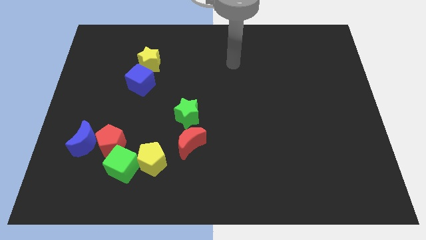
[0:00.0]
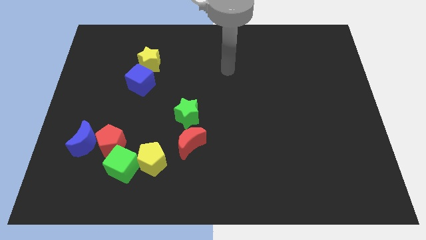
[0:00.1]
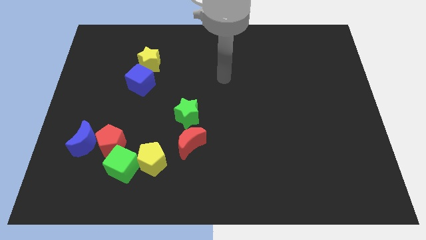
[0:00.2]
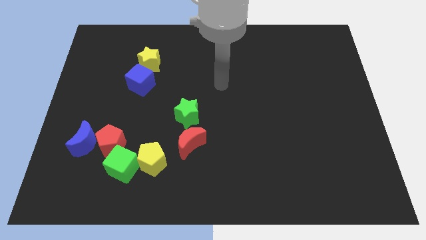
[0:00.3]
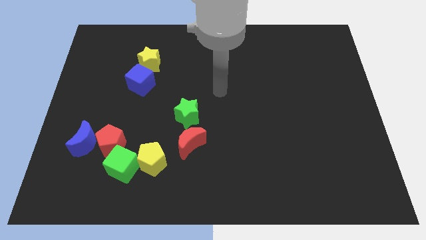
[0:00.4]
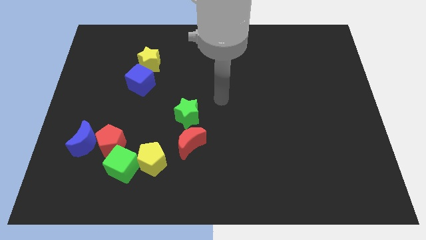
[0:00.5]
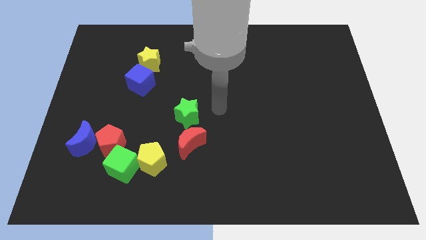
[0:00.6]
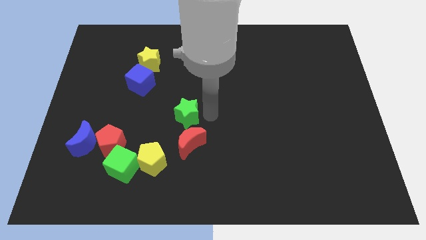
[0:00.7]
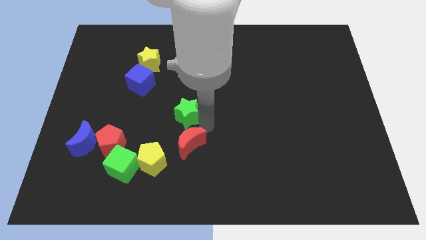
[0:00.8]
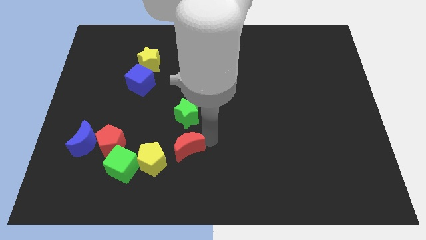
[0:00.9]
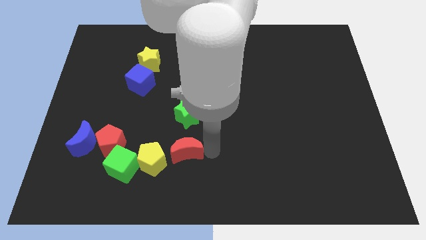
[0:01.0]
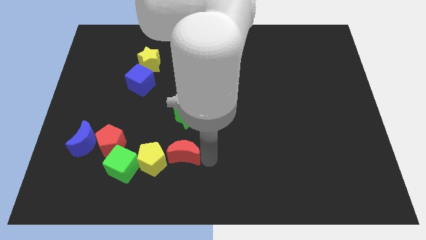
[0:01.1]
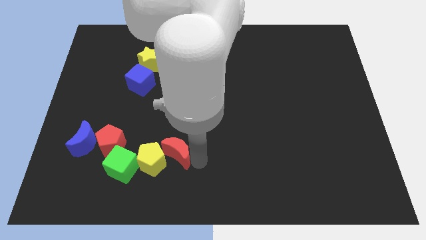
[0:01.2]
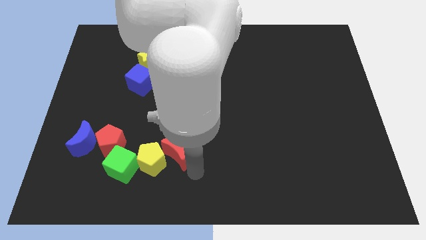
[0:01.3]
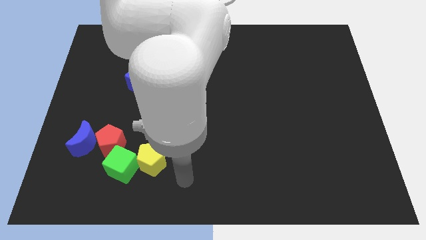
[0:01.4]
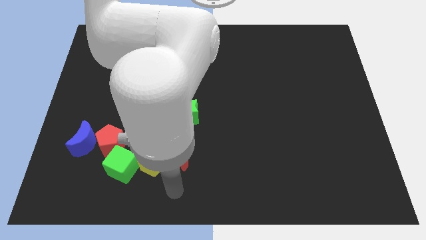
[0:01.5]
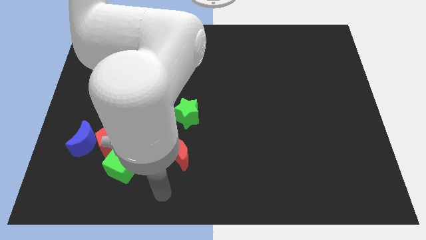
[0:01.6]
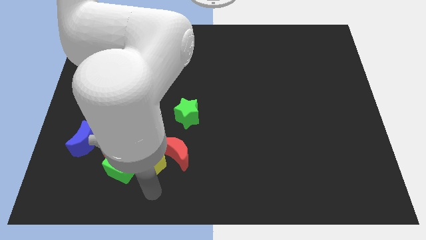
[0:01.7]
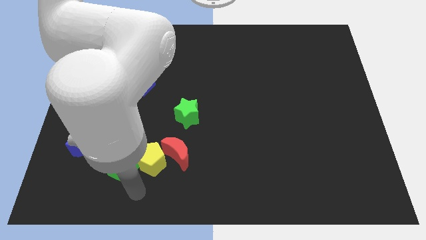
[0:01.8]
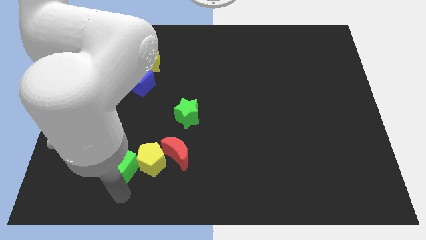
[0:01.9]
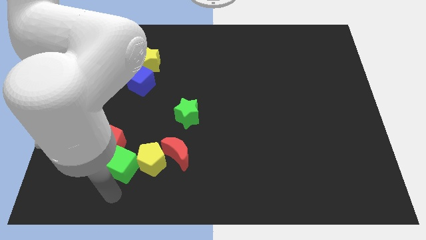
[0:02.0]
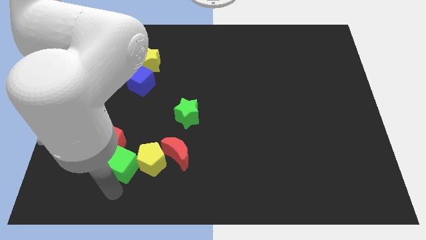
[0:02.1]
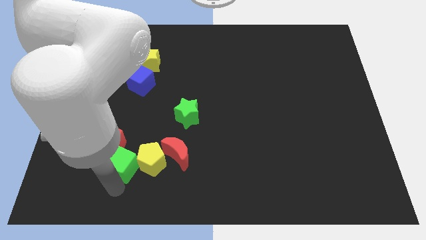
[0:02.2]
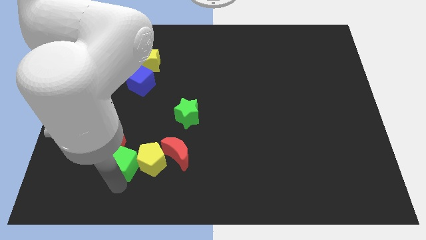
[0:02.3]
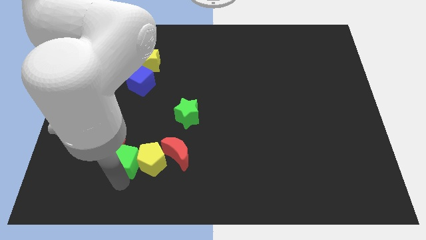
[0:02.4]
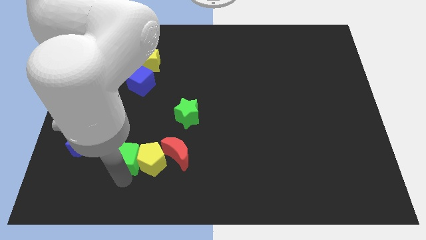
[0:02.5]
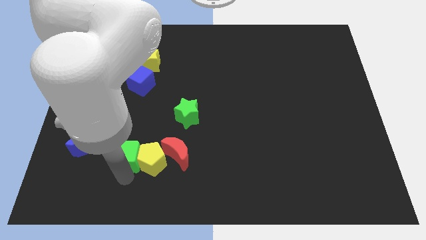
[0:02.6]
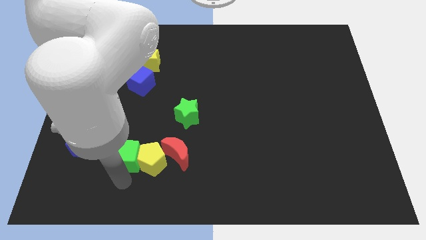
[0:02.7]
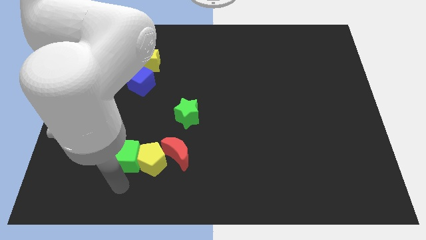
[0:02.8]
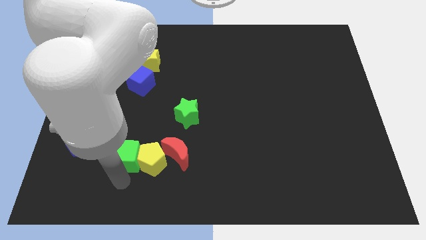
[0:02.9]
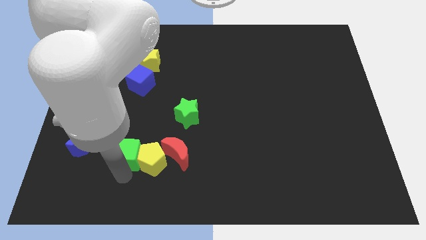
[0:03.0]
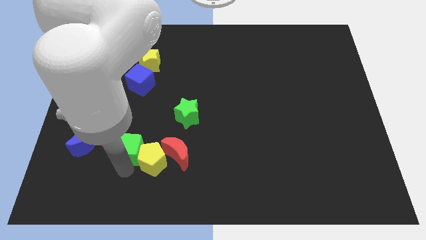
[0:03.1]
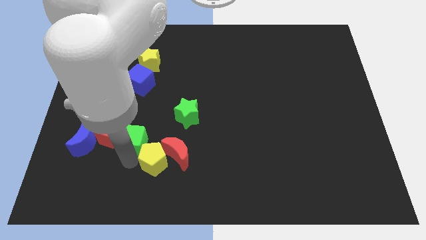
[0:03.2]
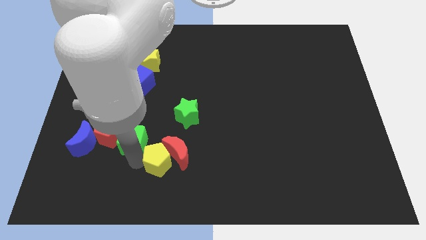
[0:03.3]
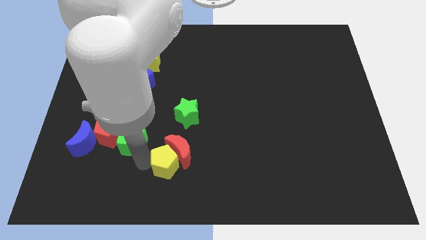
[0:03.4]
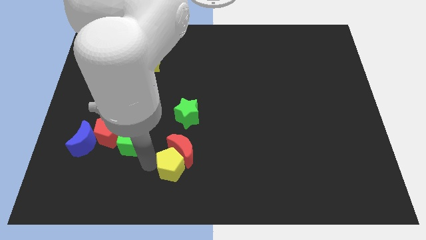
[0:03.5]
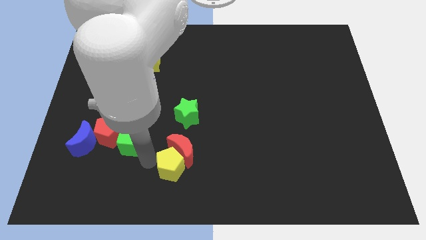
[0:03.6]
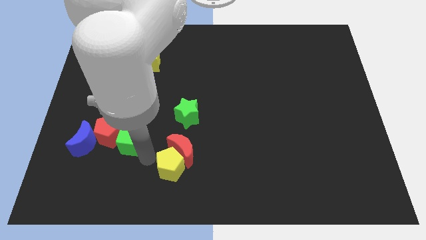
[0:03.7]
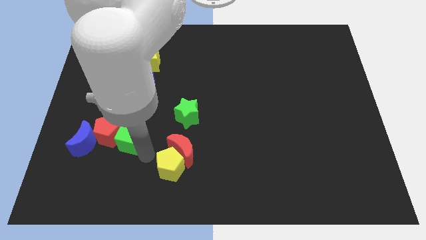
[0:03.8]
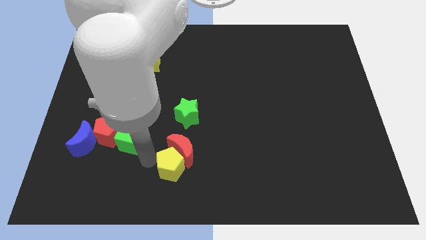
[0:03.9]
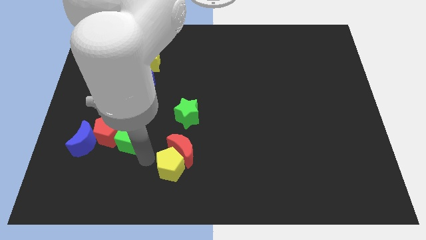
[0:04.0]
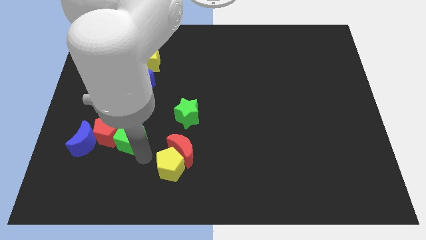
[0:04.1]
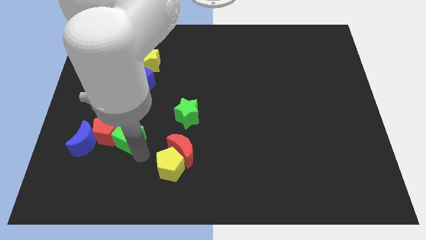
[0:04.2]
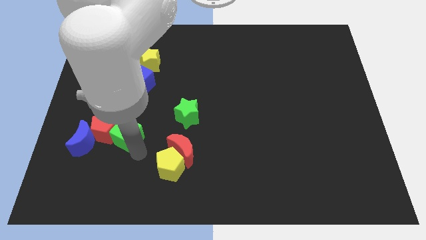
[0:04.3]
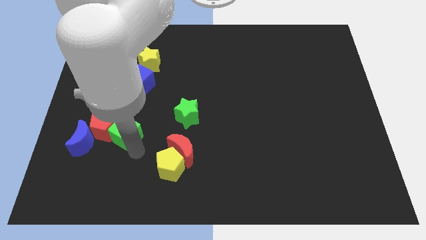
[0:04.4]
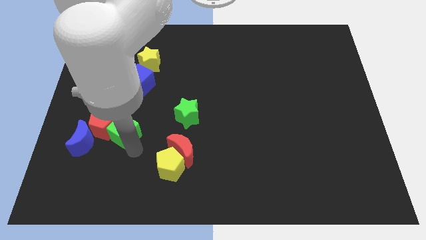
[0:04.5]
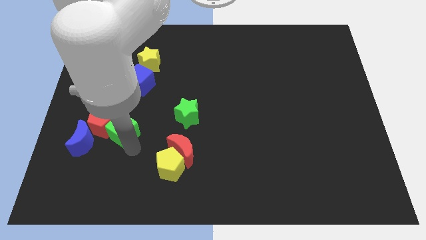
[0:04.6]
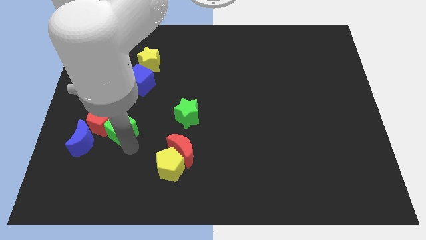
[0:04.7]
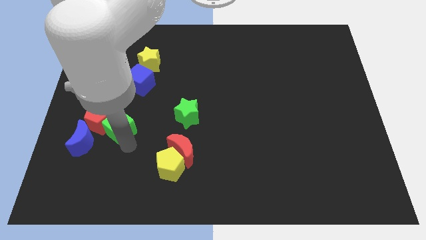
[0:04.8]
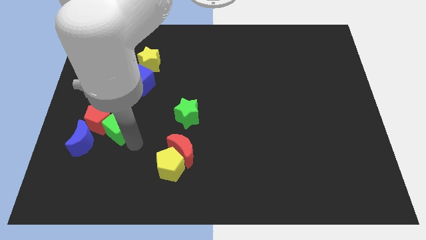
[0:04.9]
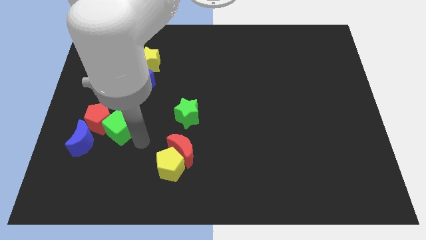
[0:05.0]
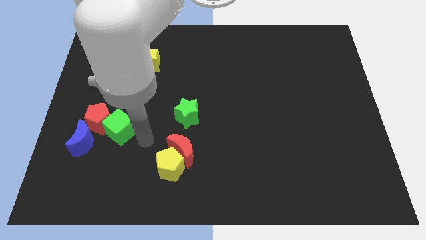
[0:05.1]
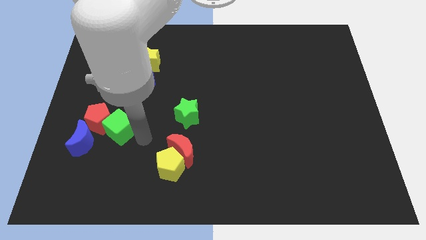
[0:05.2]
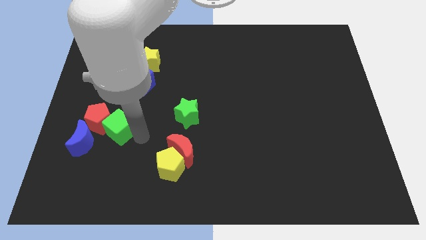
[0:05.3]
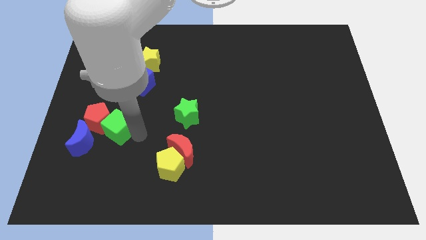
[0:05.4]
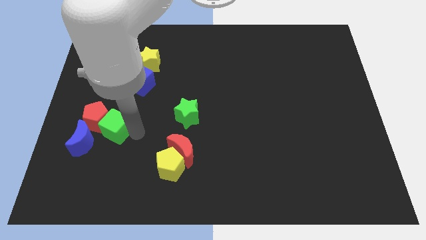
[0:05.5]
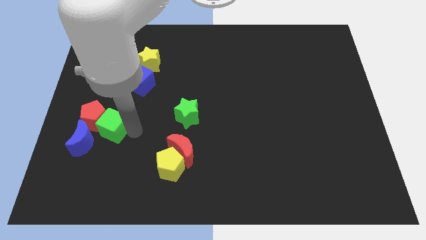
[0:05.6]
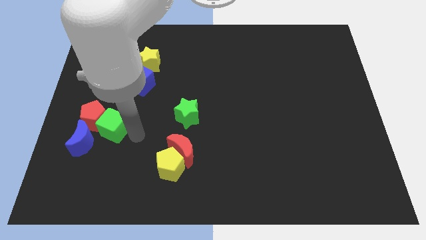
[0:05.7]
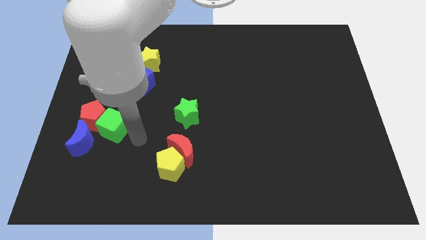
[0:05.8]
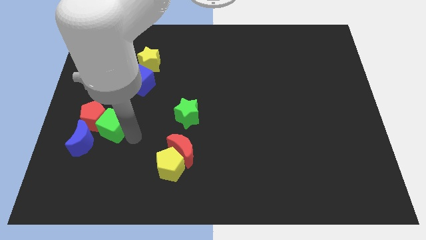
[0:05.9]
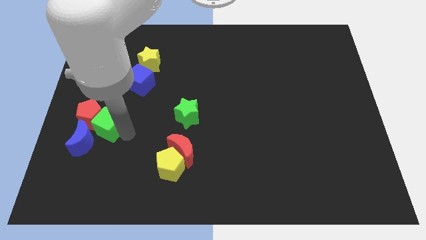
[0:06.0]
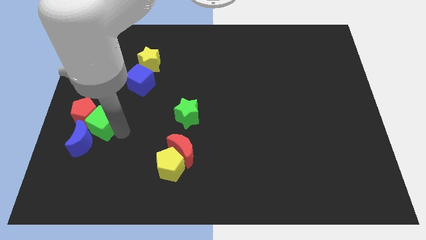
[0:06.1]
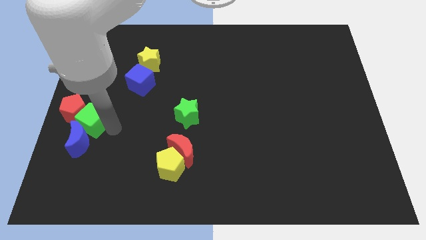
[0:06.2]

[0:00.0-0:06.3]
push the green cube to the center left
